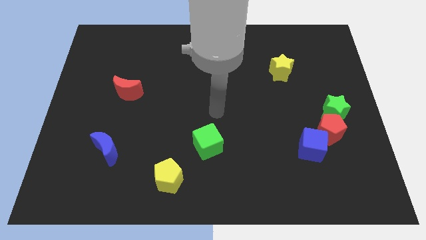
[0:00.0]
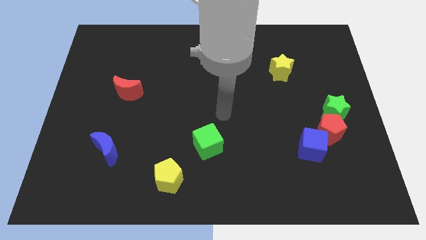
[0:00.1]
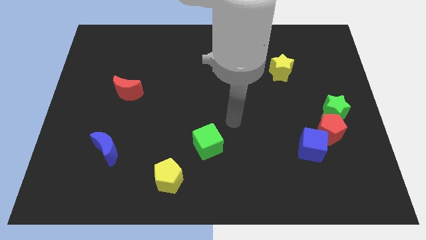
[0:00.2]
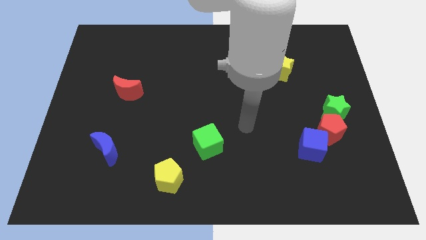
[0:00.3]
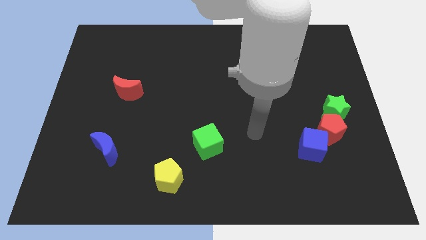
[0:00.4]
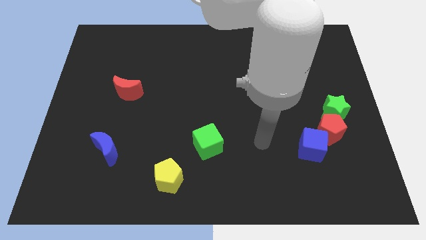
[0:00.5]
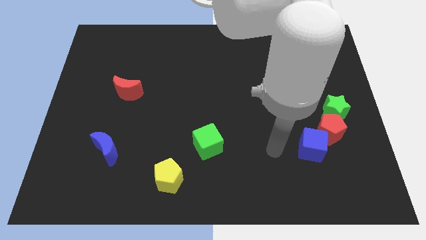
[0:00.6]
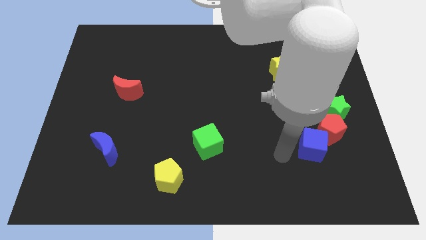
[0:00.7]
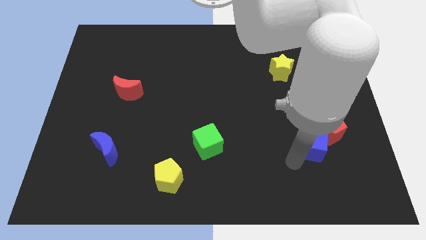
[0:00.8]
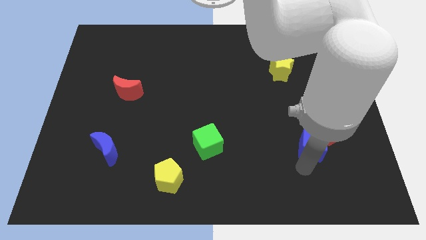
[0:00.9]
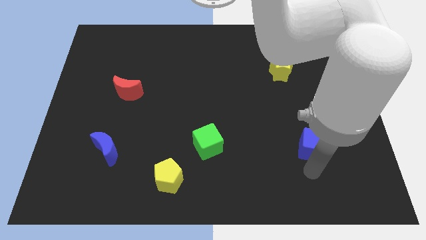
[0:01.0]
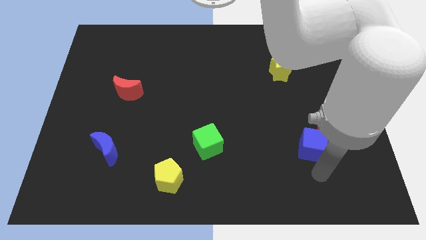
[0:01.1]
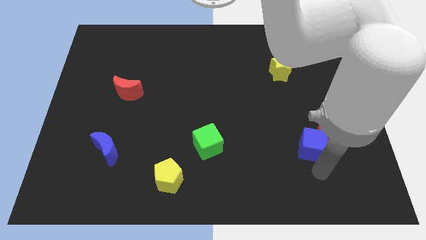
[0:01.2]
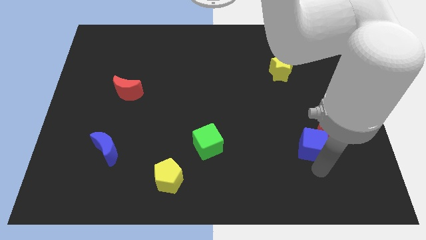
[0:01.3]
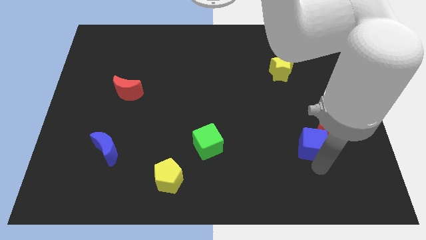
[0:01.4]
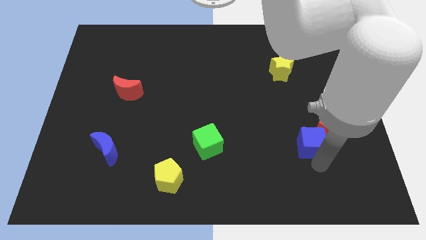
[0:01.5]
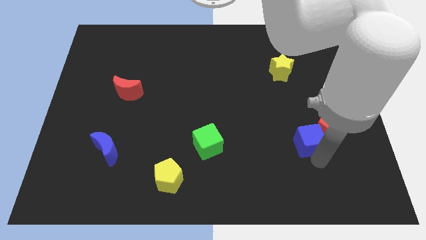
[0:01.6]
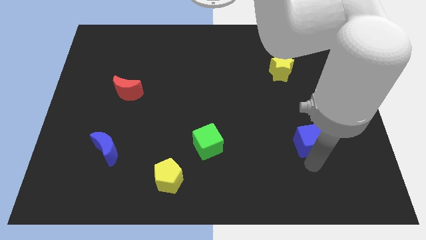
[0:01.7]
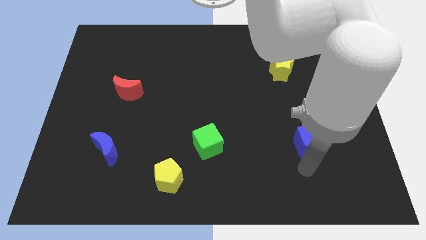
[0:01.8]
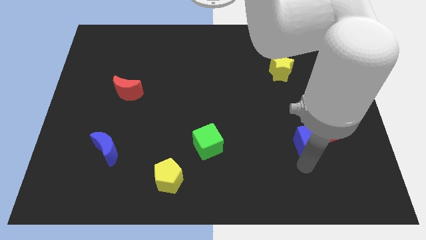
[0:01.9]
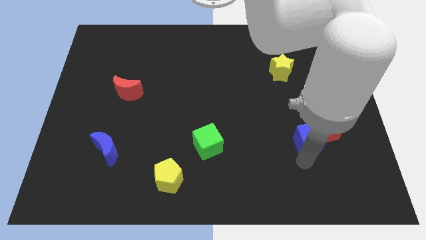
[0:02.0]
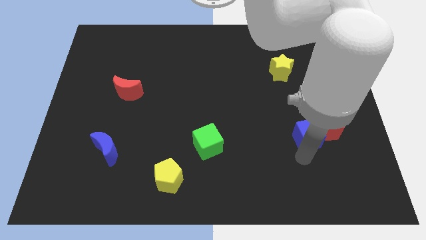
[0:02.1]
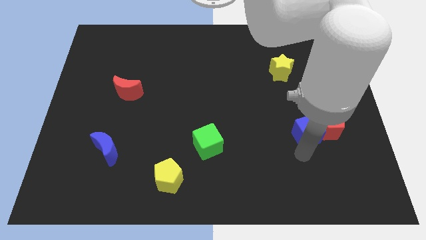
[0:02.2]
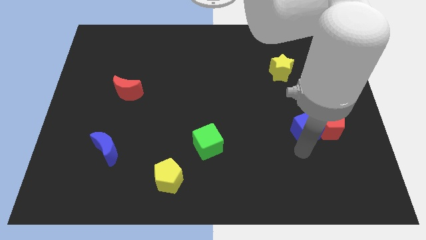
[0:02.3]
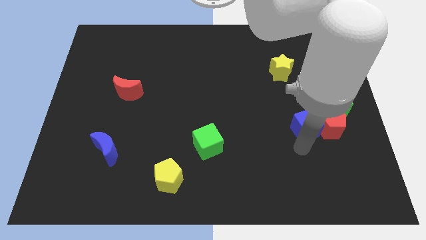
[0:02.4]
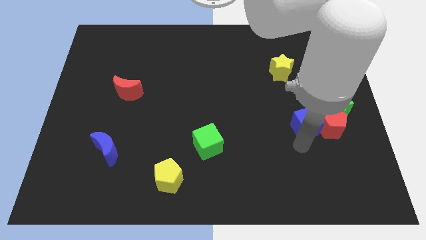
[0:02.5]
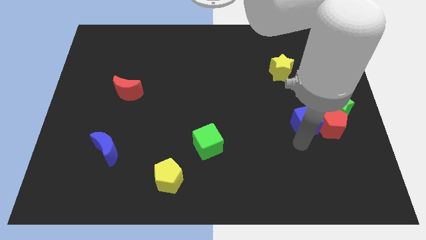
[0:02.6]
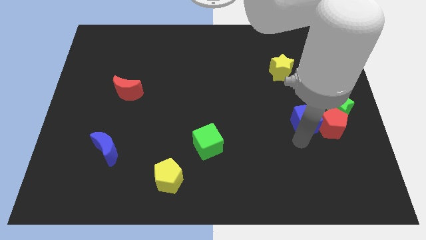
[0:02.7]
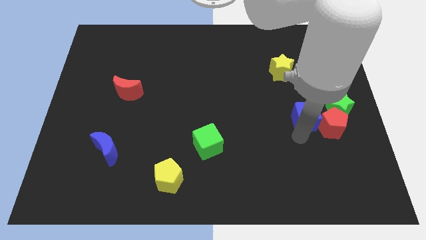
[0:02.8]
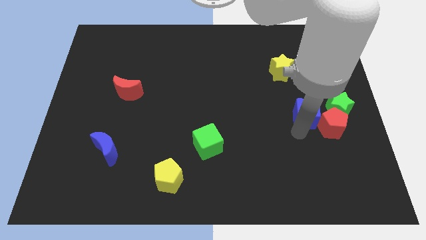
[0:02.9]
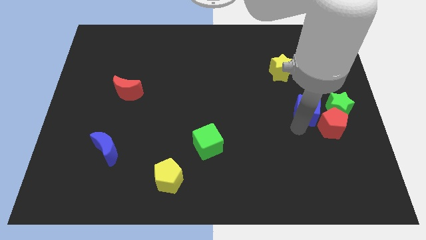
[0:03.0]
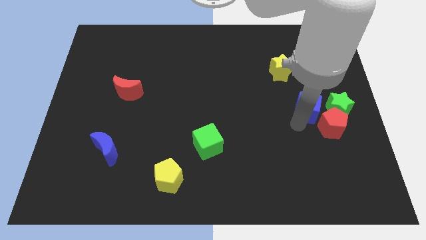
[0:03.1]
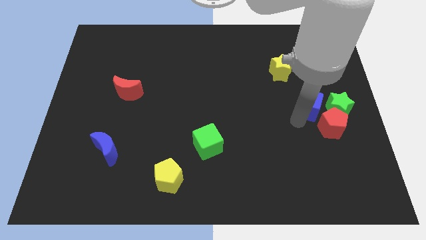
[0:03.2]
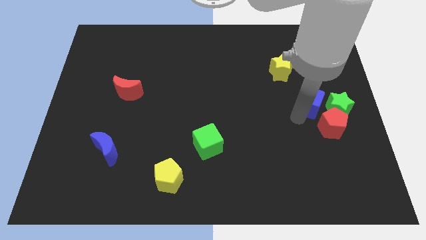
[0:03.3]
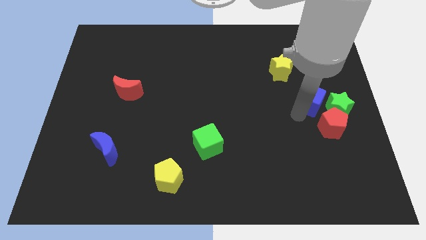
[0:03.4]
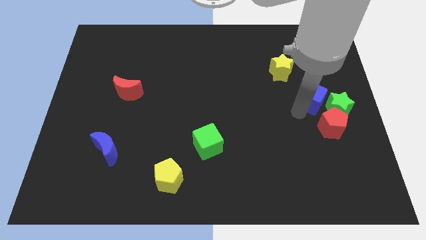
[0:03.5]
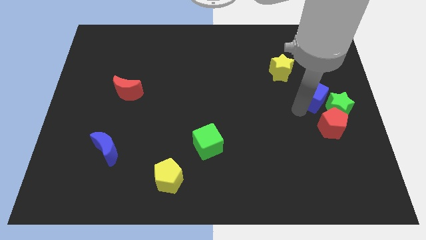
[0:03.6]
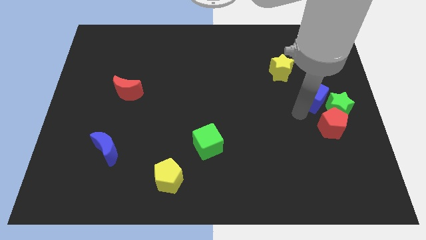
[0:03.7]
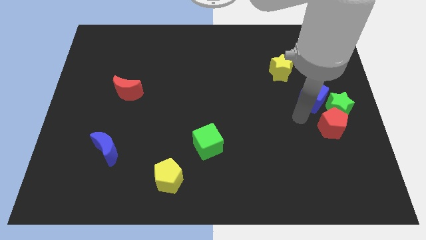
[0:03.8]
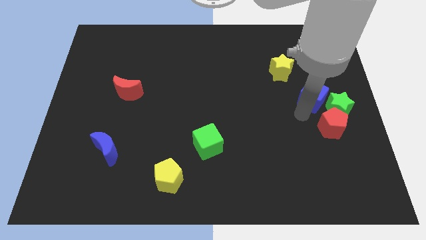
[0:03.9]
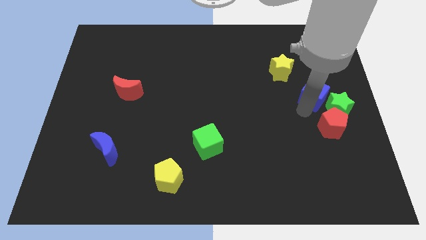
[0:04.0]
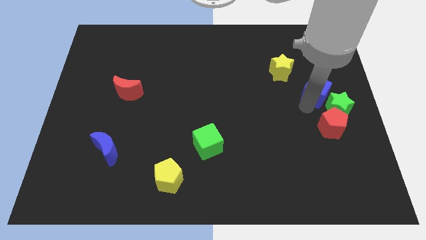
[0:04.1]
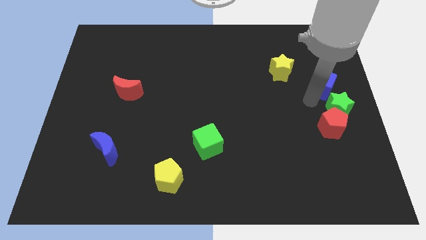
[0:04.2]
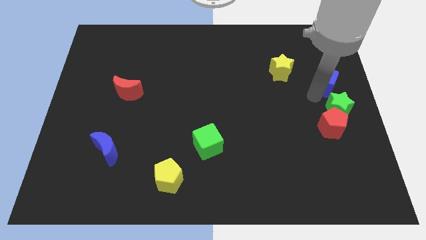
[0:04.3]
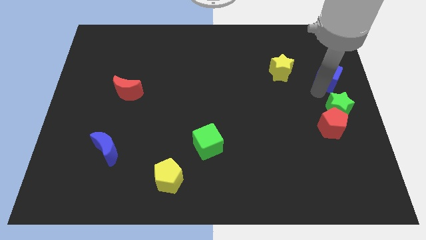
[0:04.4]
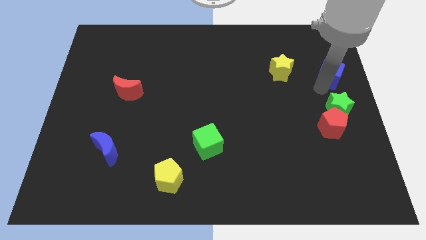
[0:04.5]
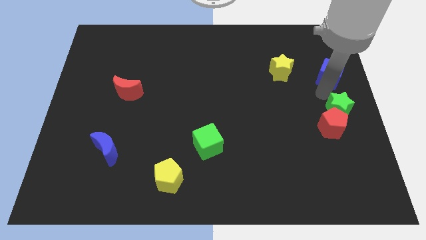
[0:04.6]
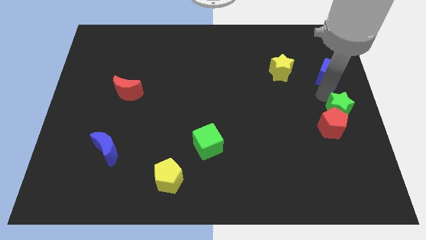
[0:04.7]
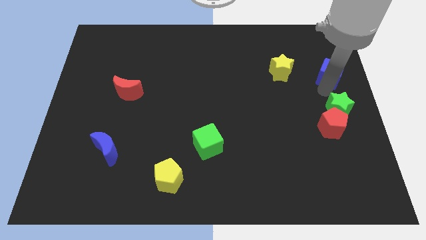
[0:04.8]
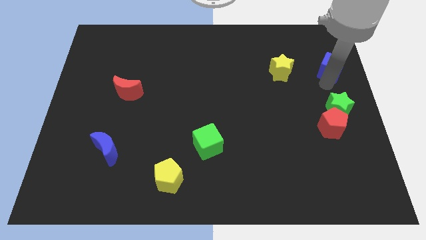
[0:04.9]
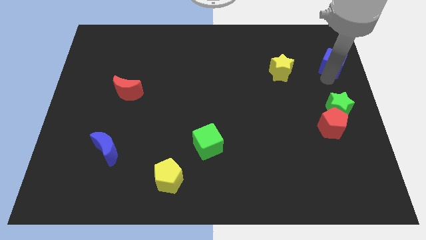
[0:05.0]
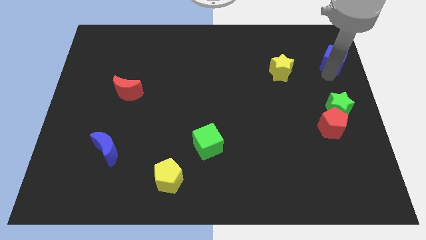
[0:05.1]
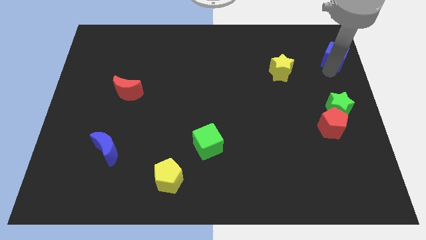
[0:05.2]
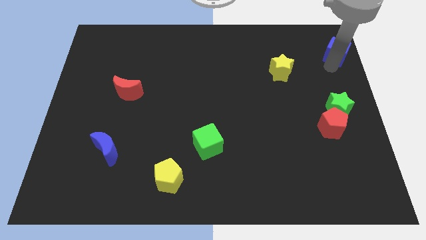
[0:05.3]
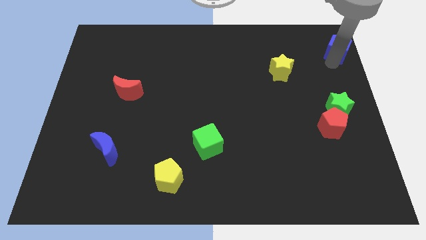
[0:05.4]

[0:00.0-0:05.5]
push the blue cube to the top right of the board
